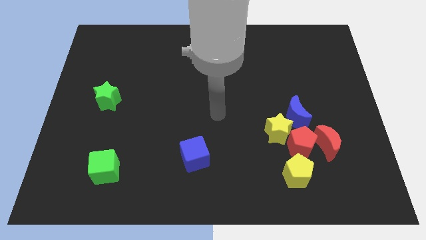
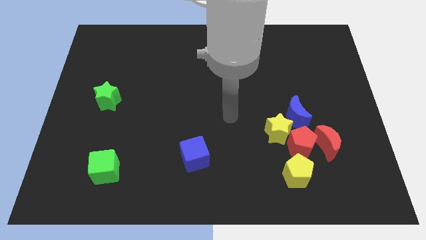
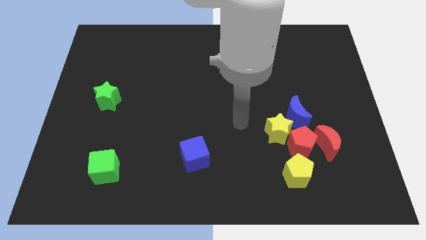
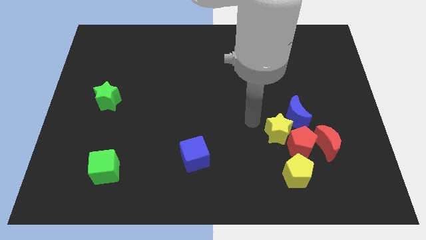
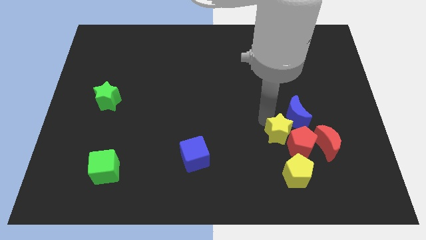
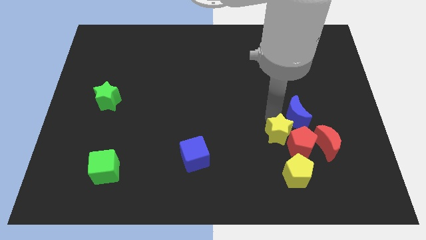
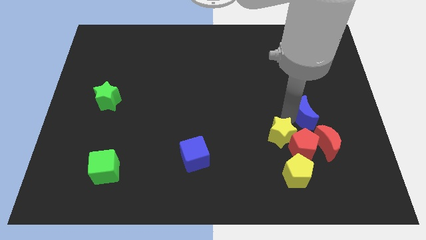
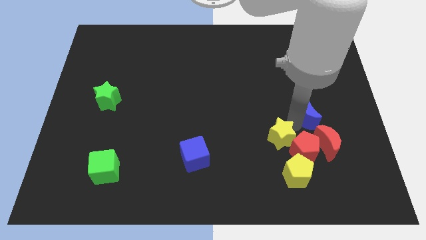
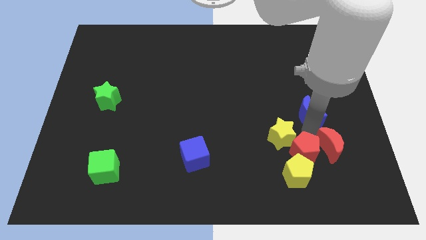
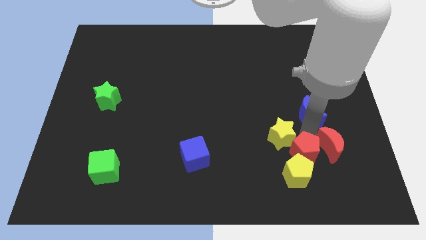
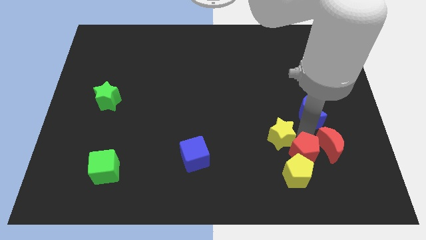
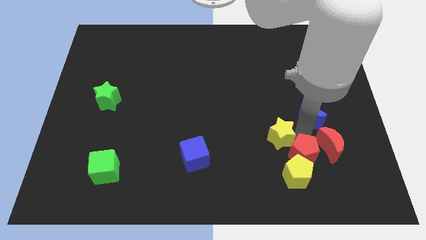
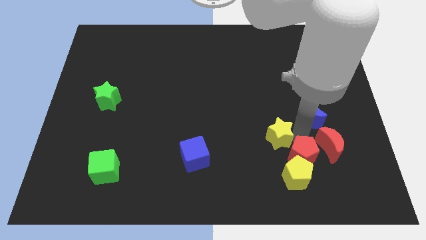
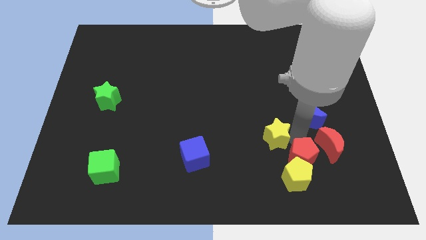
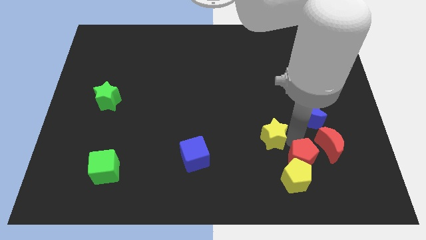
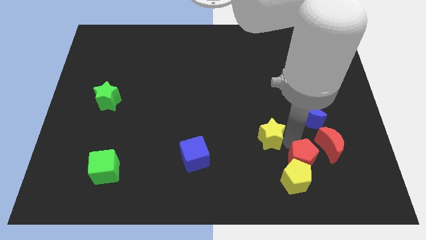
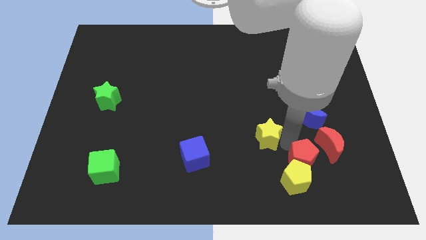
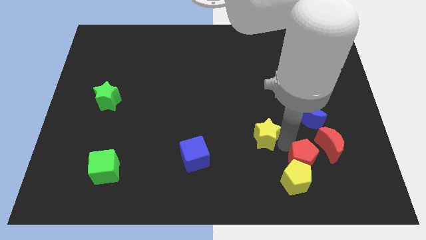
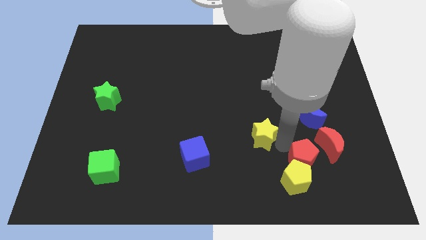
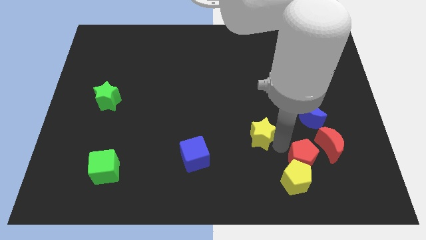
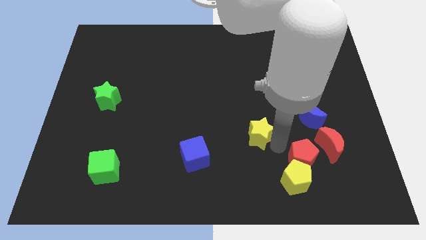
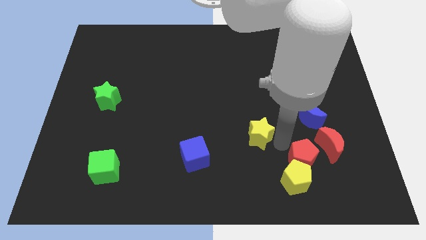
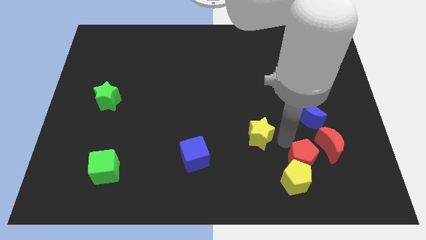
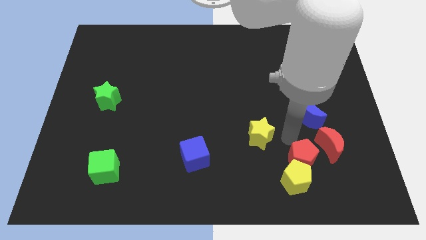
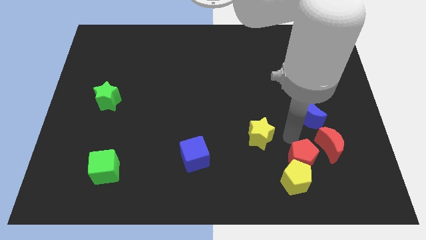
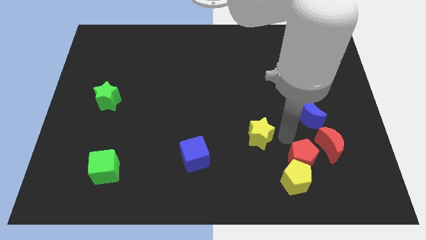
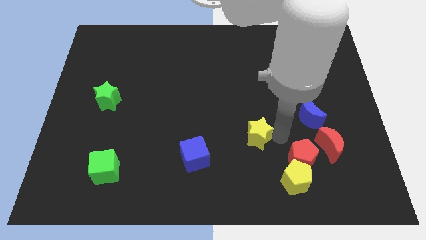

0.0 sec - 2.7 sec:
move the yellow star away from the red pentagon and blue moon

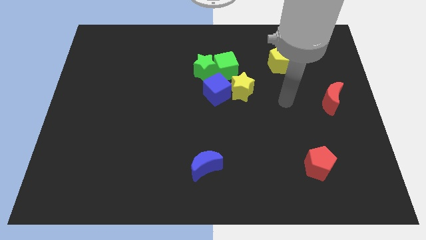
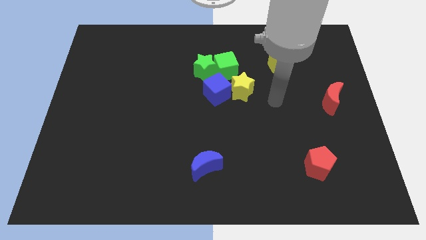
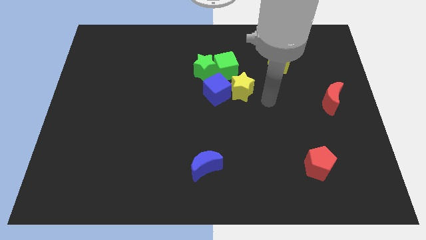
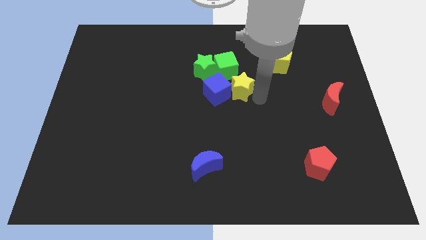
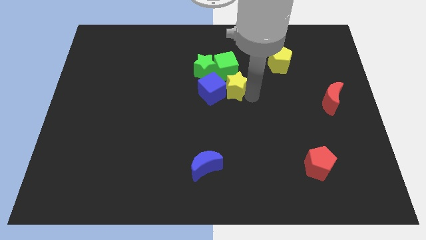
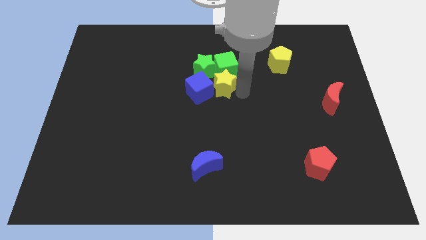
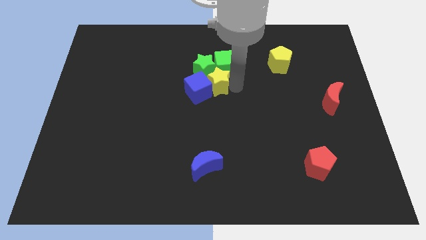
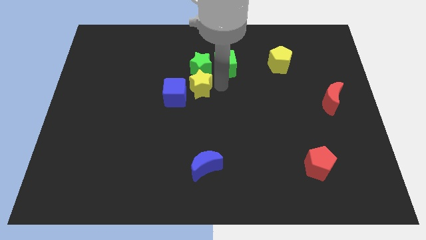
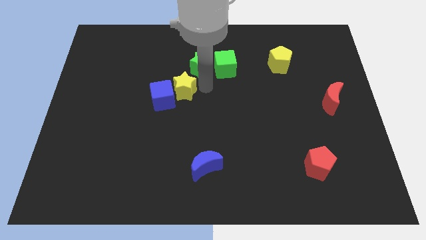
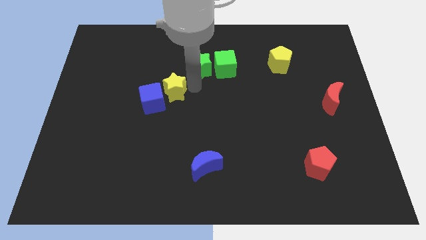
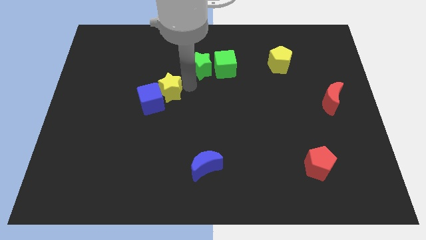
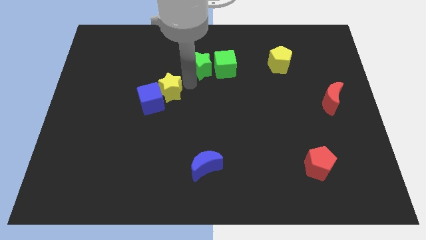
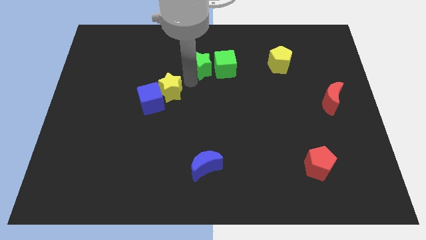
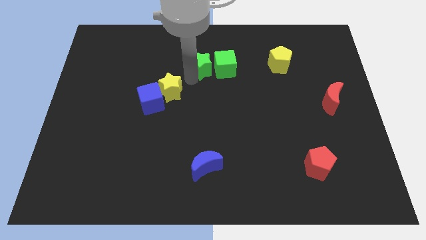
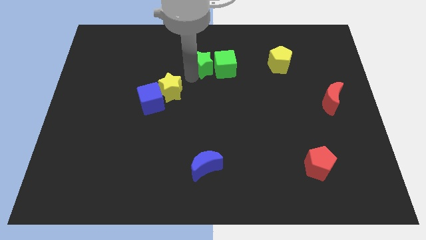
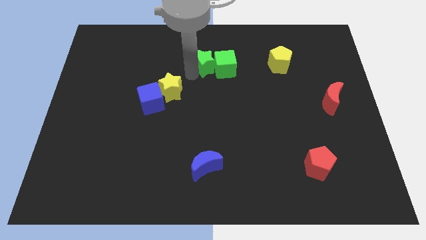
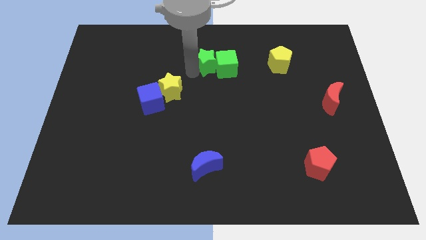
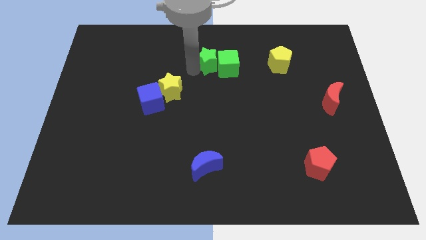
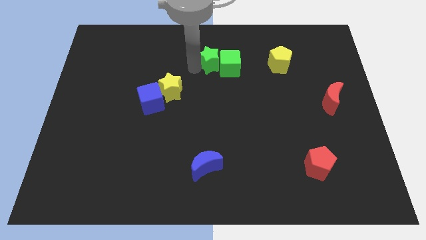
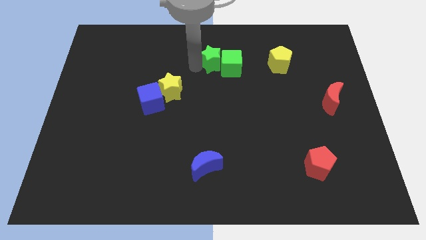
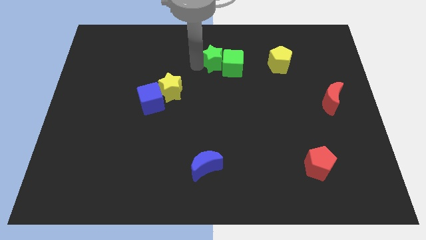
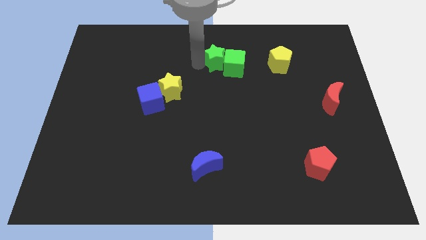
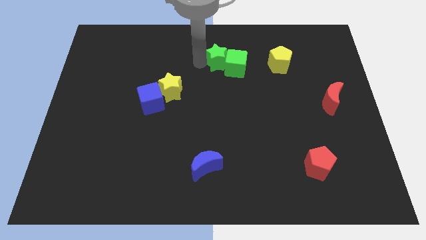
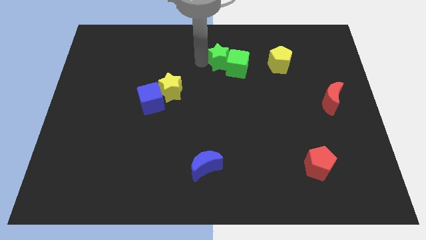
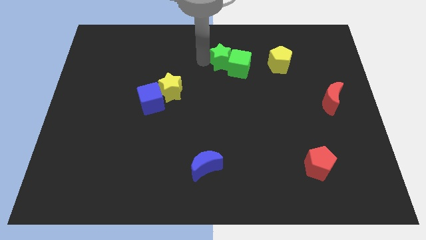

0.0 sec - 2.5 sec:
pull the green star apart from the green cube and blue cube

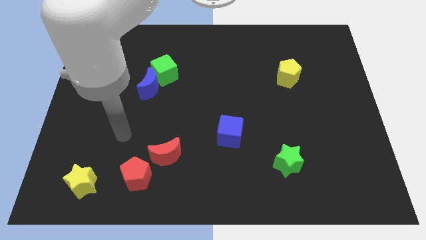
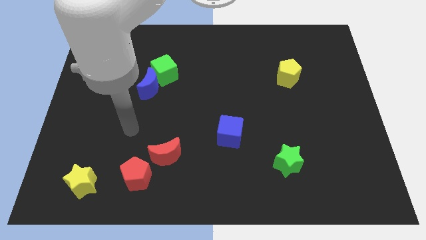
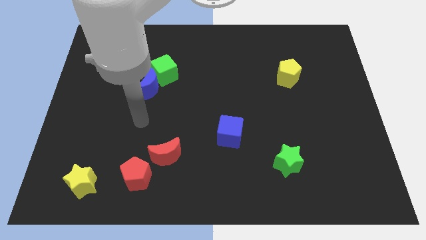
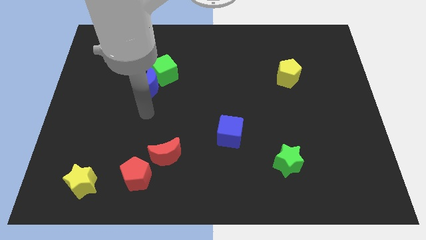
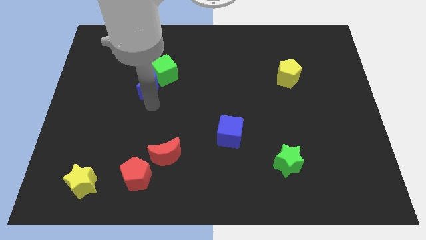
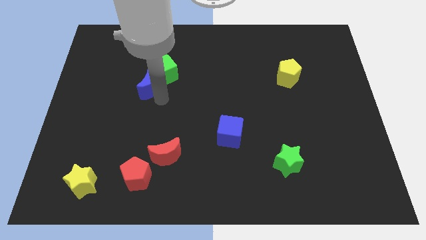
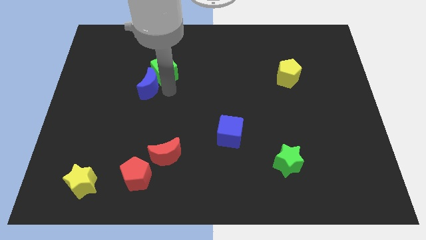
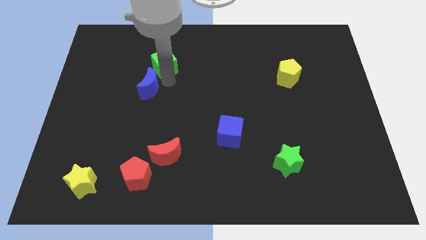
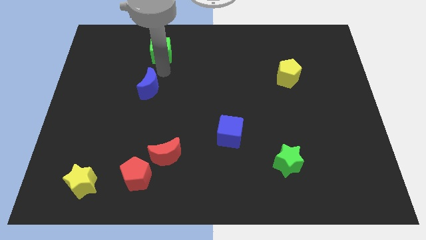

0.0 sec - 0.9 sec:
pull the blue moon apart from the green cube

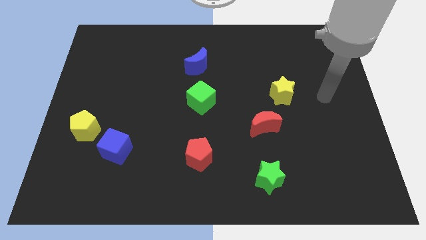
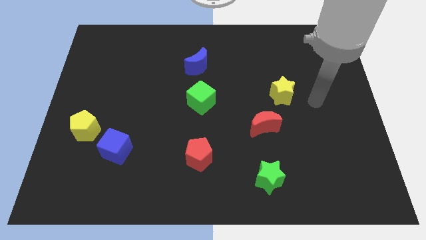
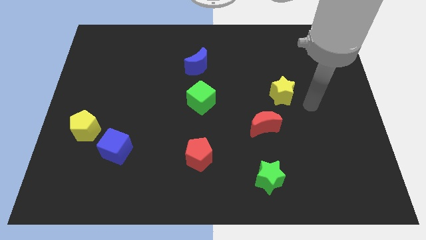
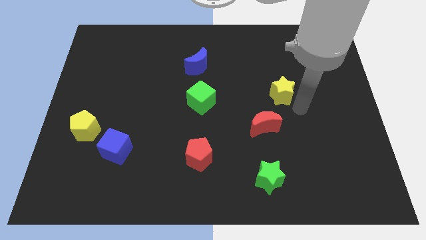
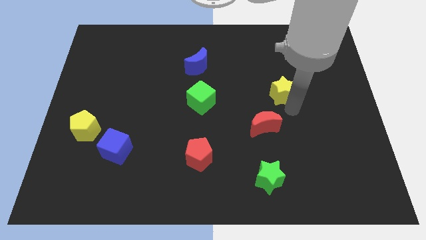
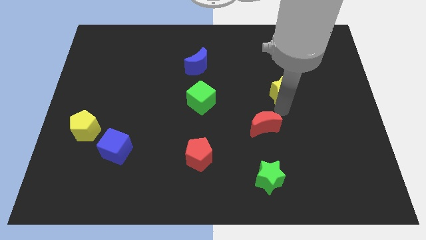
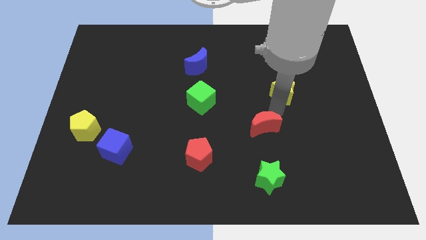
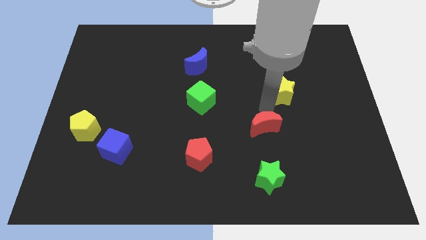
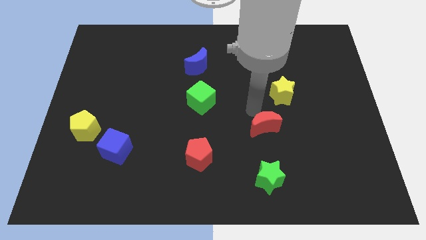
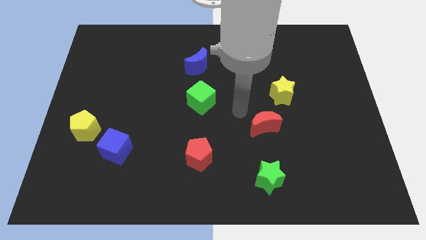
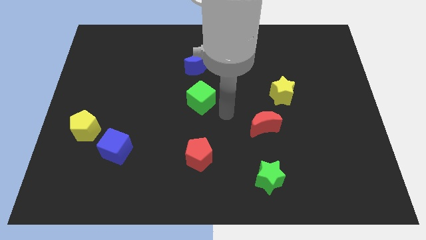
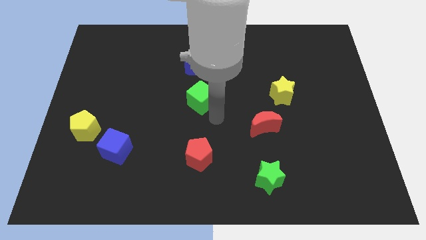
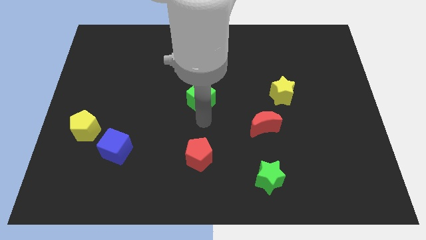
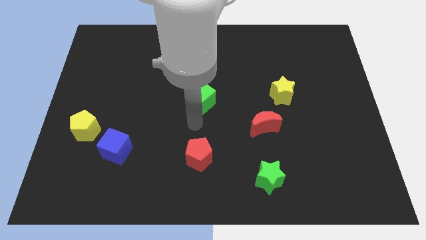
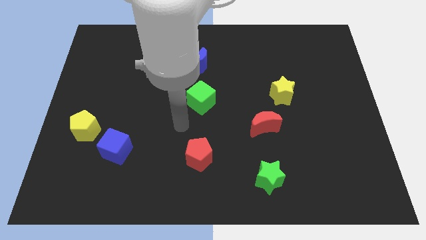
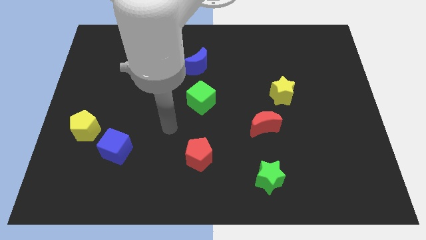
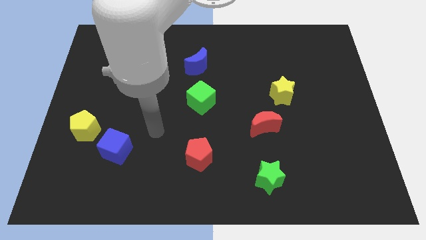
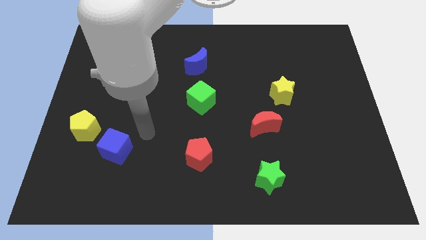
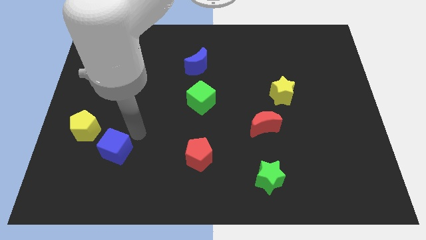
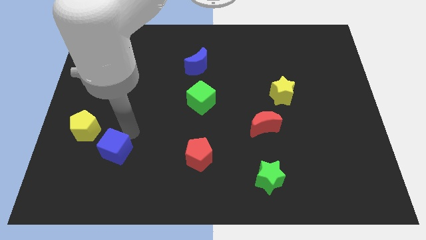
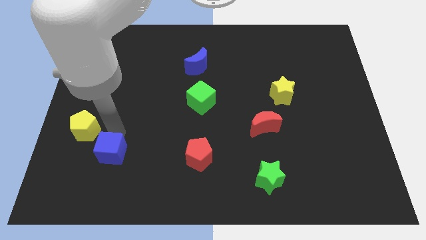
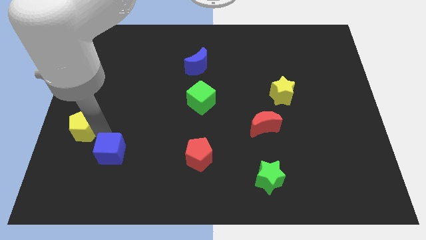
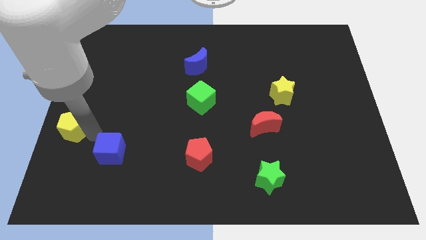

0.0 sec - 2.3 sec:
separate the blue cube from the yellow pentagon

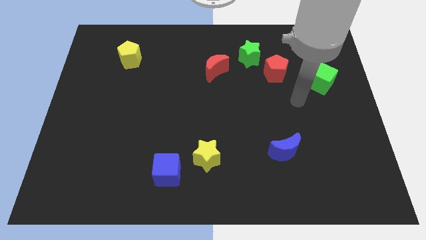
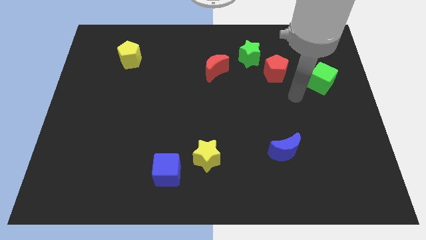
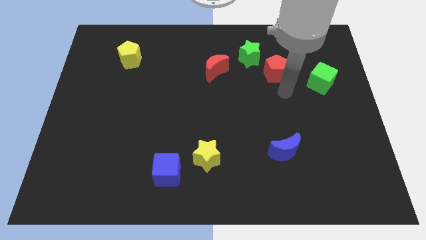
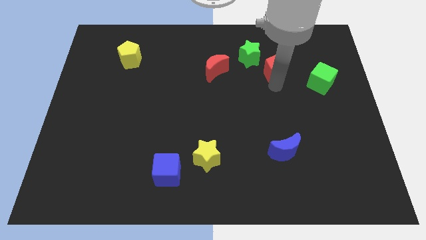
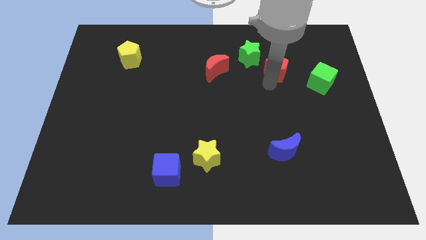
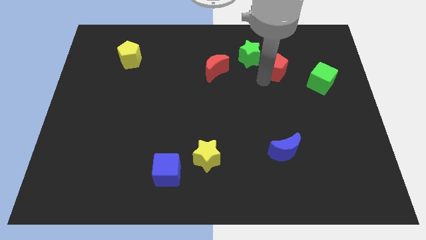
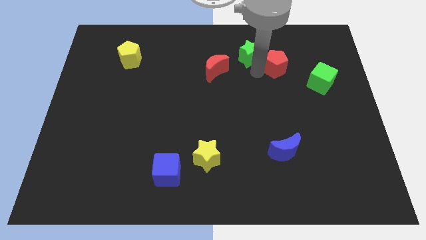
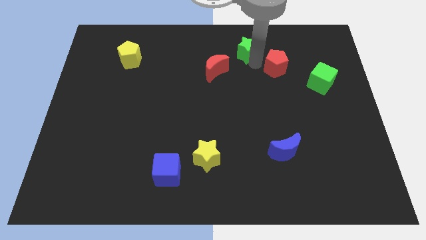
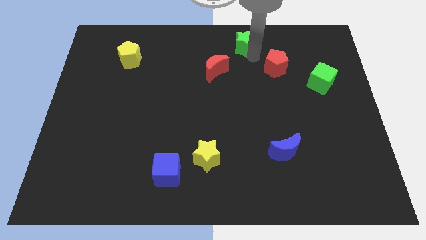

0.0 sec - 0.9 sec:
move the red pentagon away from the green star
